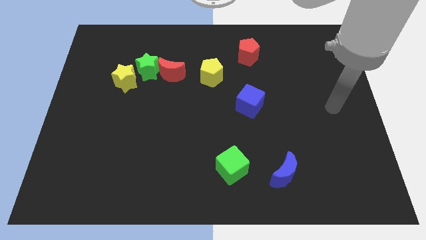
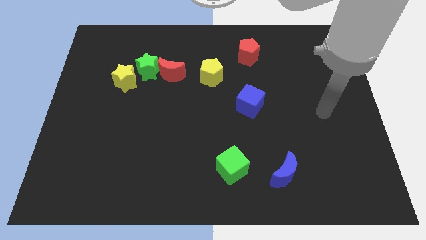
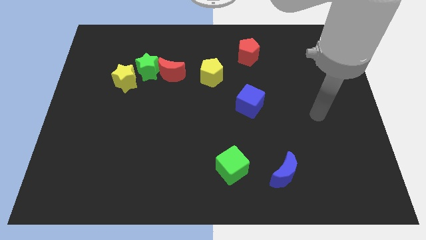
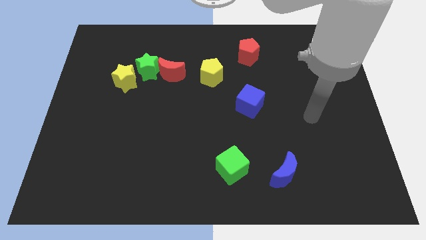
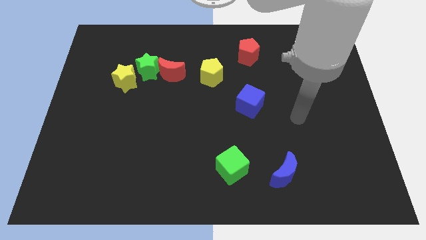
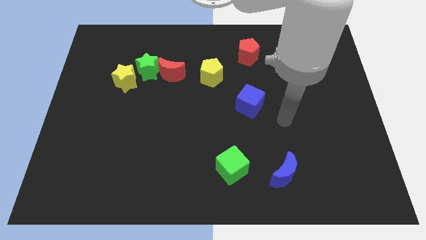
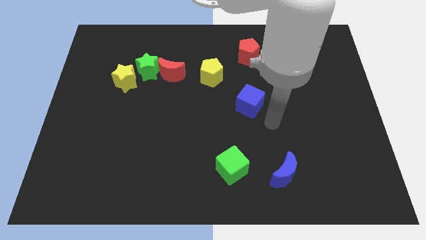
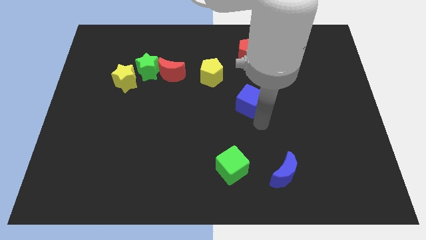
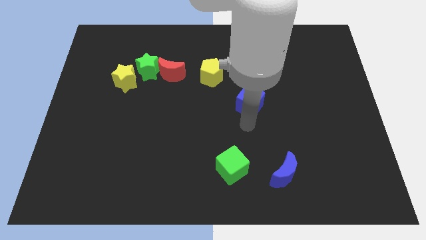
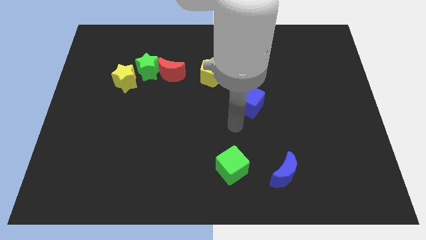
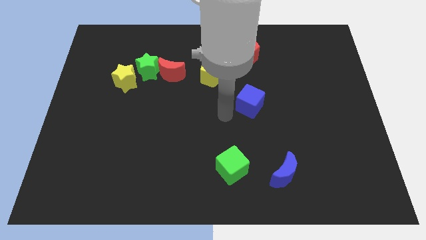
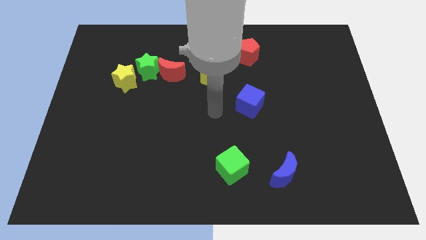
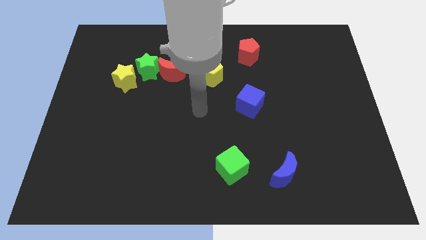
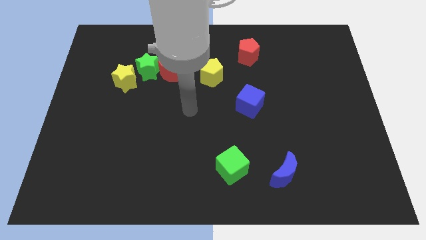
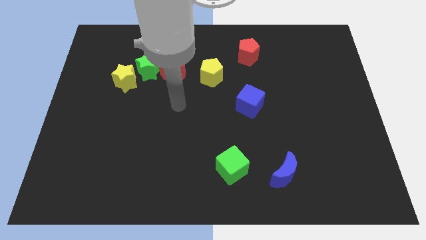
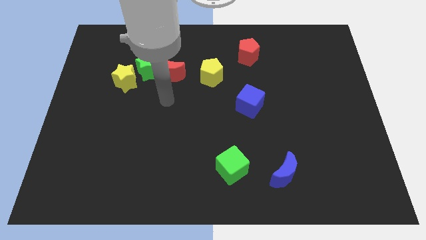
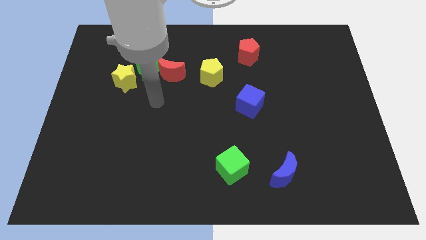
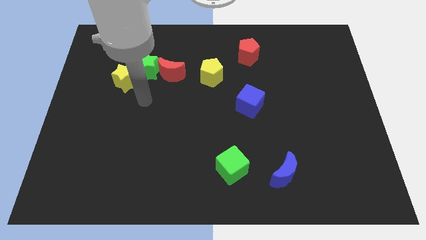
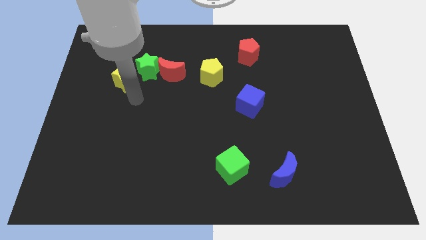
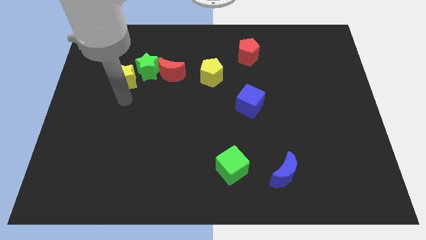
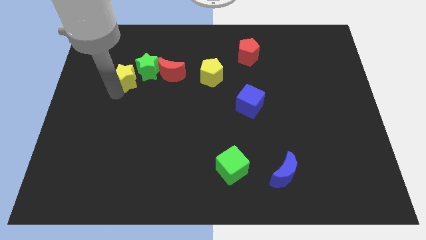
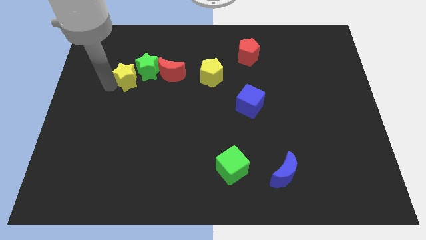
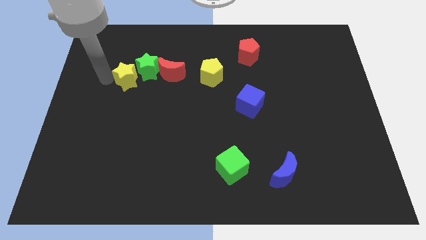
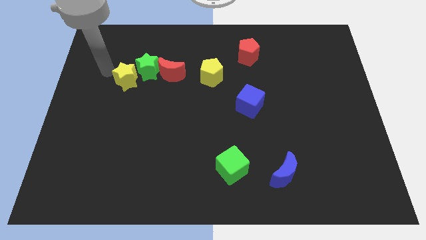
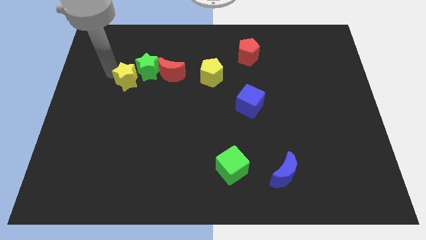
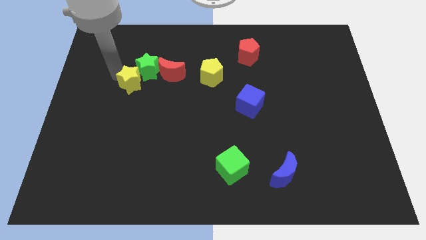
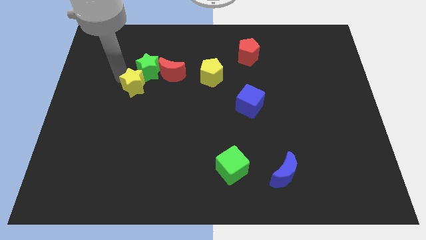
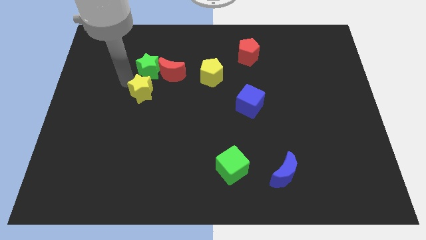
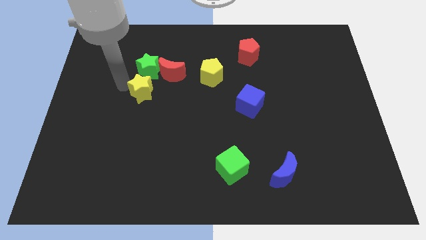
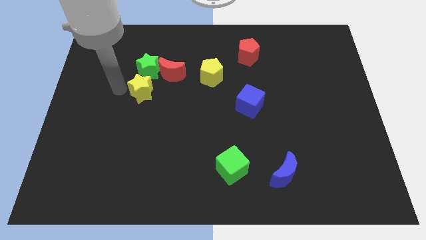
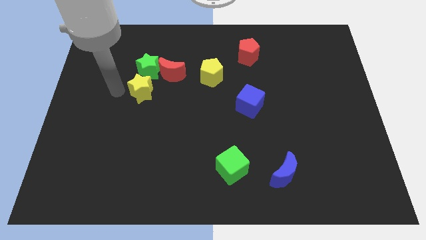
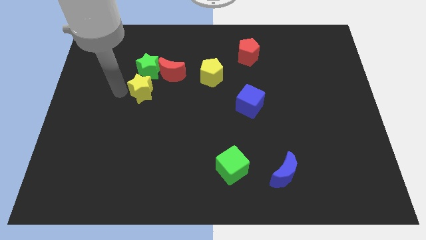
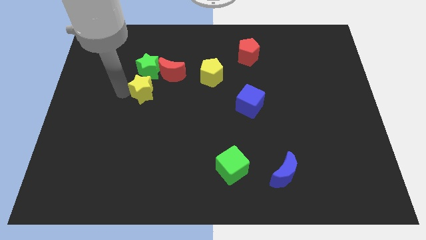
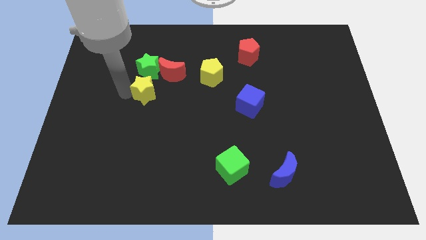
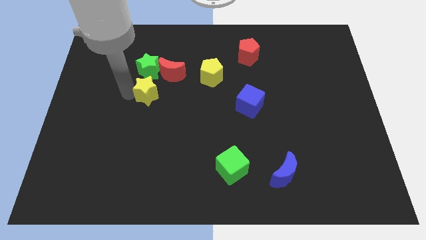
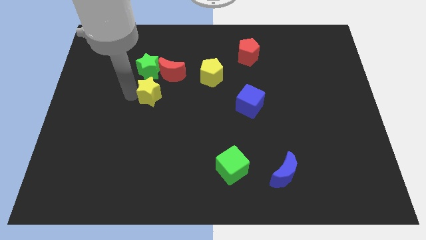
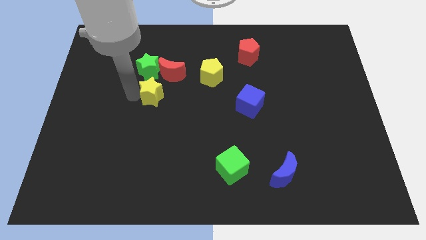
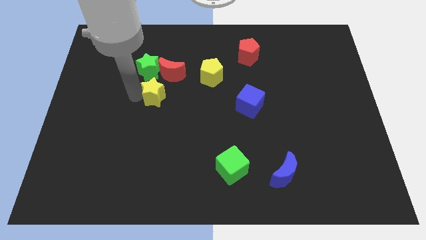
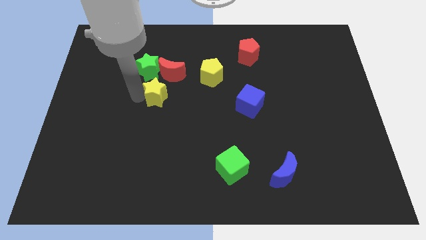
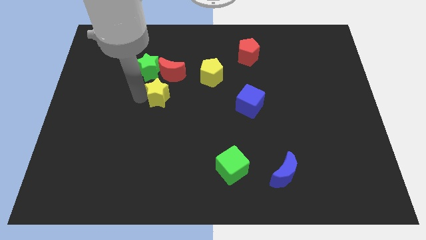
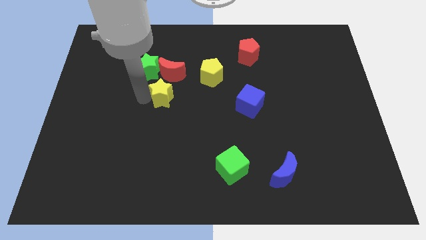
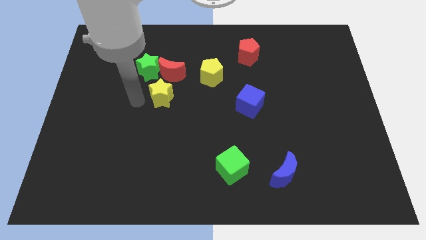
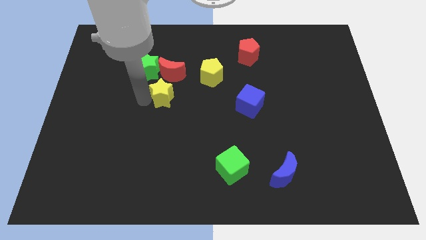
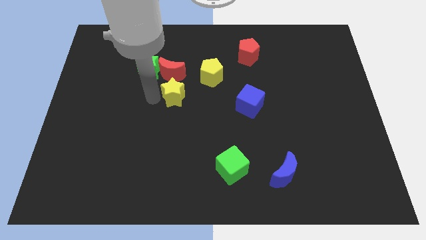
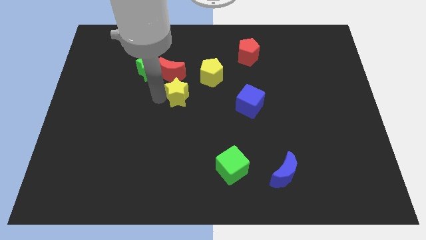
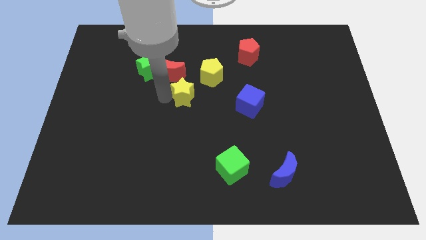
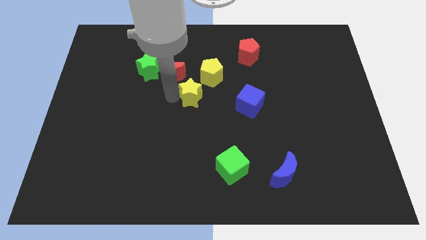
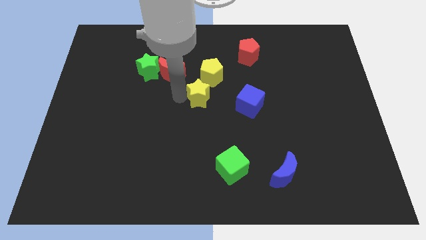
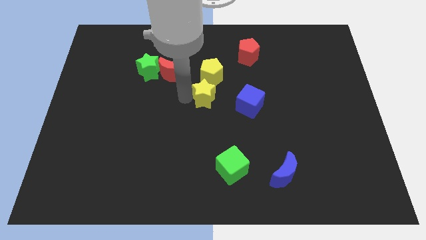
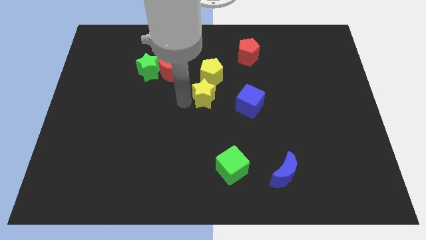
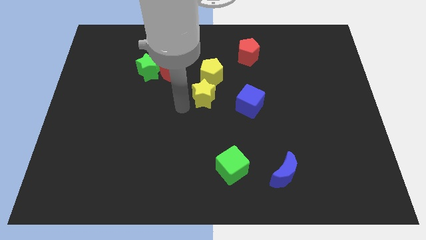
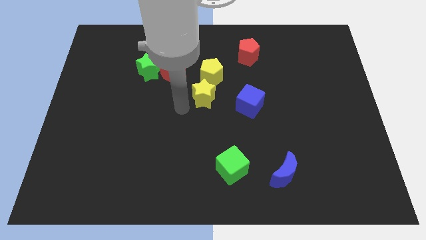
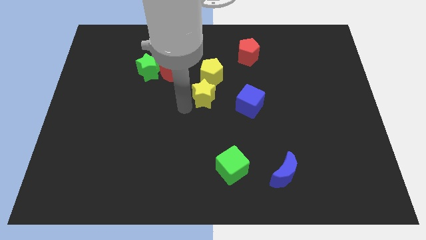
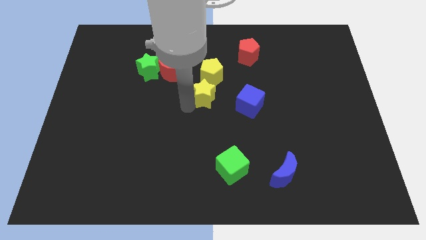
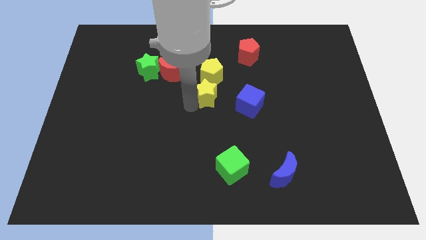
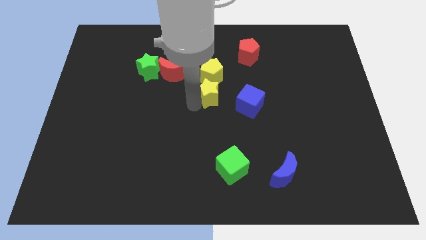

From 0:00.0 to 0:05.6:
push the yellow star right

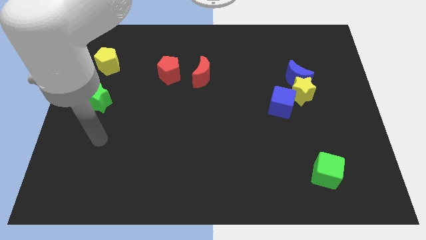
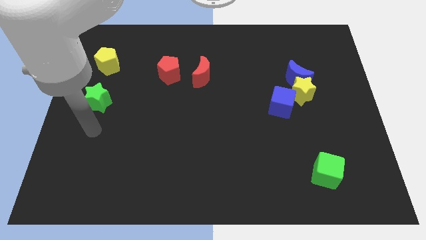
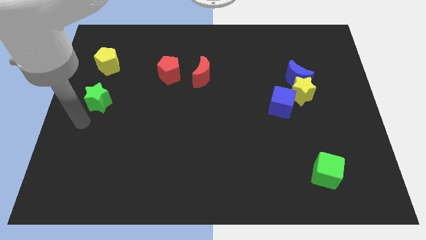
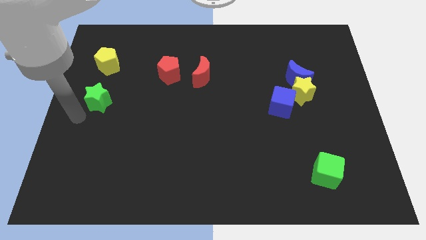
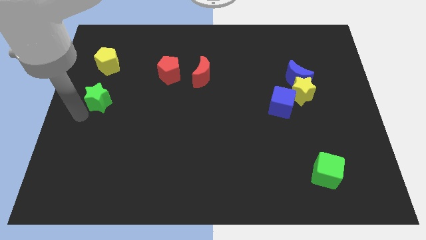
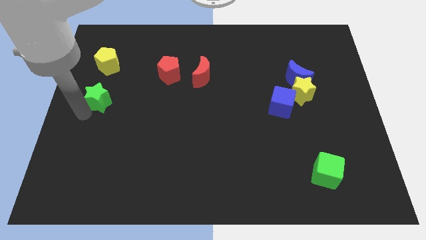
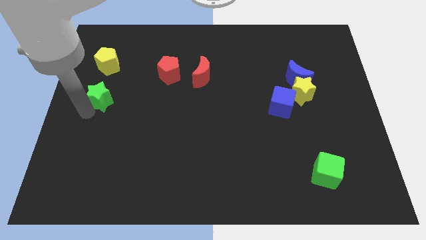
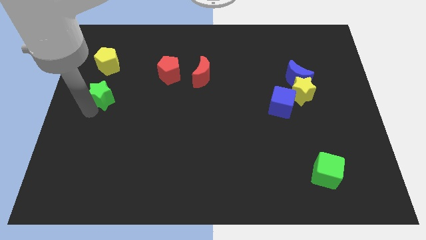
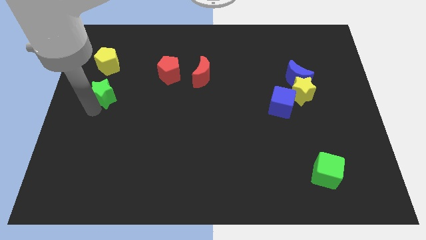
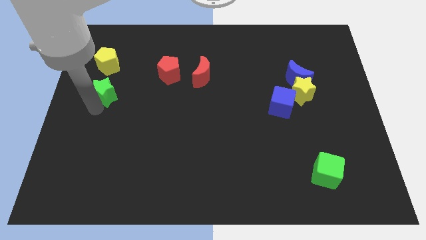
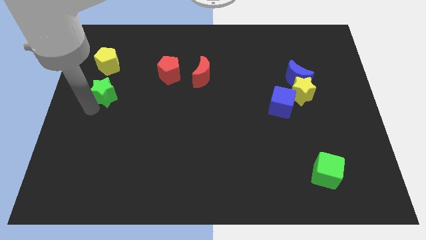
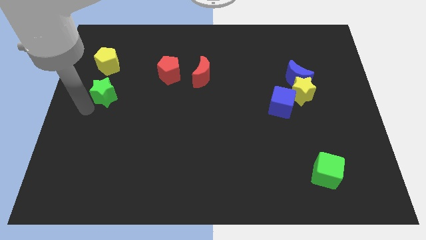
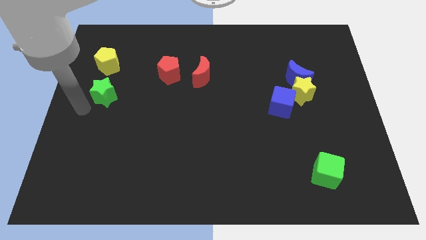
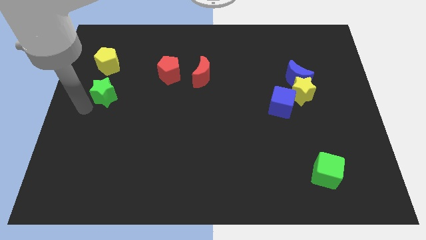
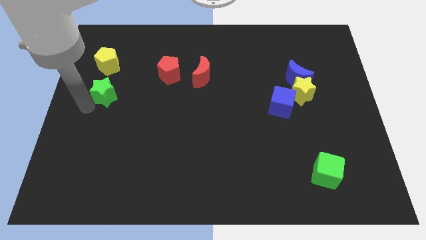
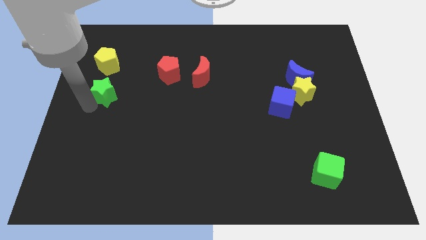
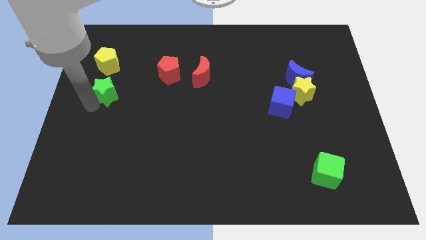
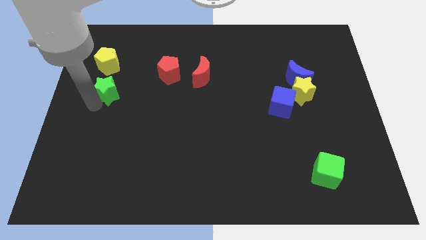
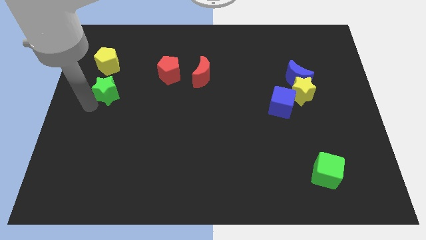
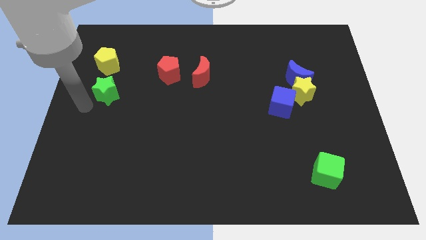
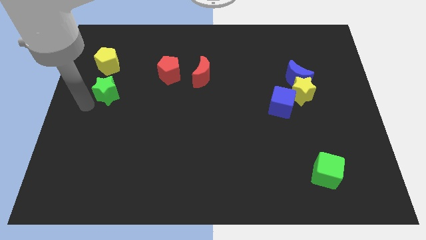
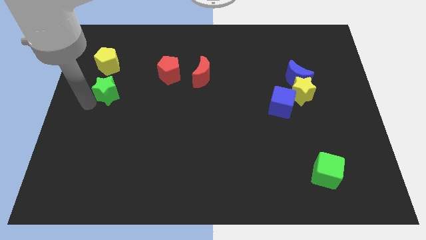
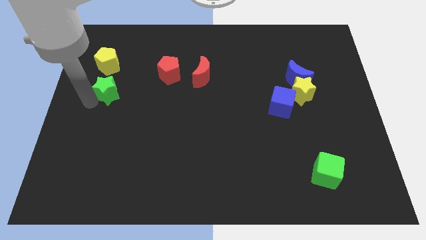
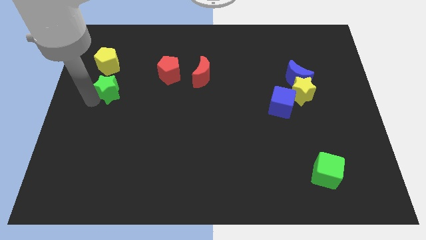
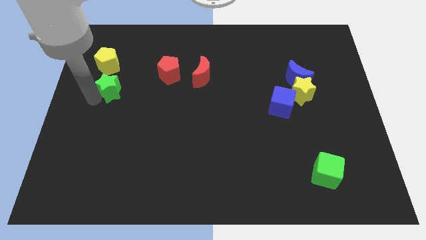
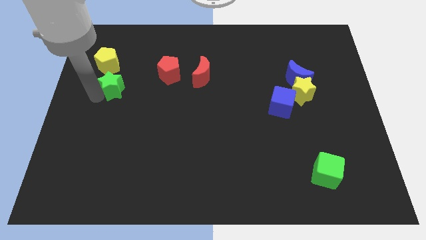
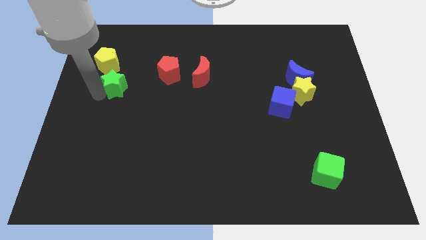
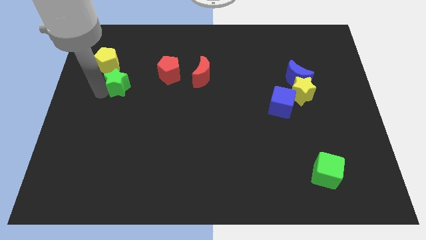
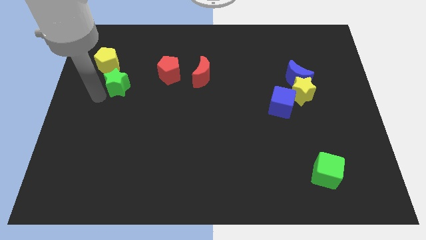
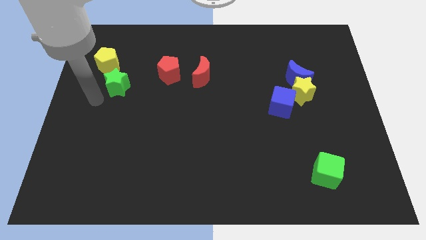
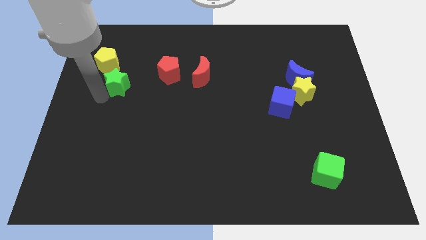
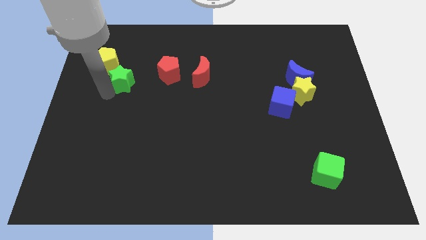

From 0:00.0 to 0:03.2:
move the green star diagonally up and to the right slightly
